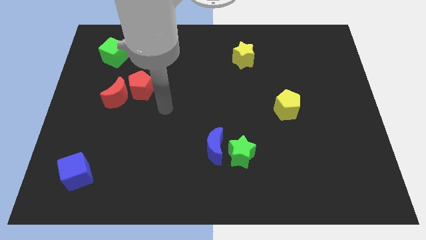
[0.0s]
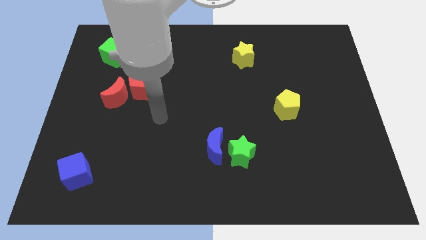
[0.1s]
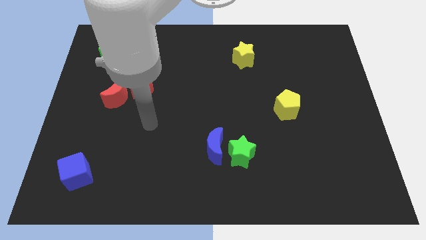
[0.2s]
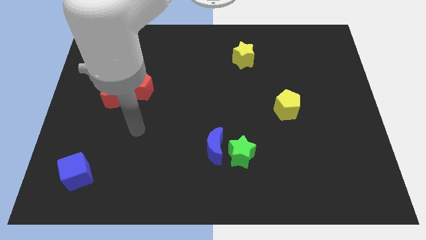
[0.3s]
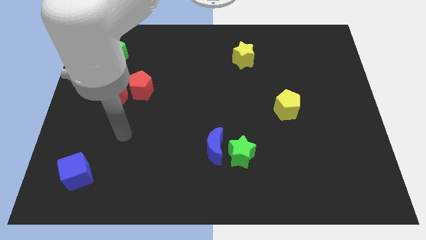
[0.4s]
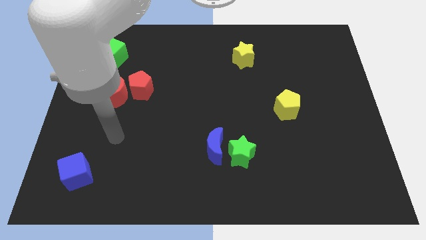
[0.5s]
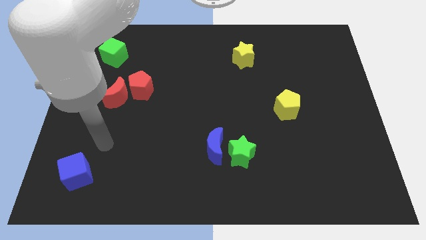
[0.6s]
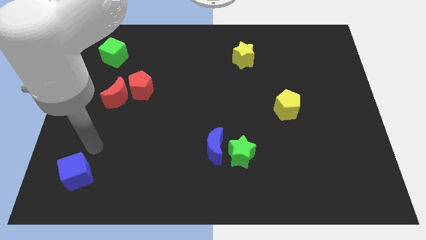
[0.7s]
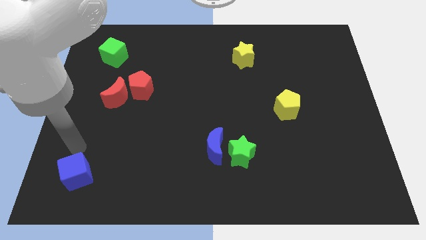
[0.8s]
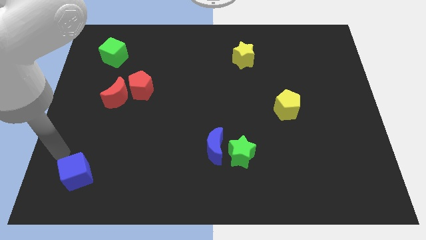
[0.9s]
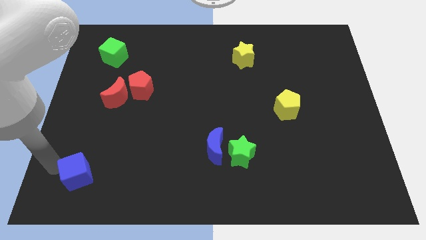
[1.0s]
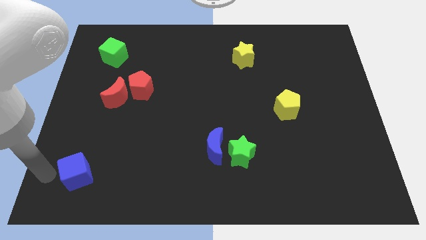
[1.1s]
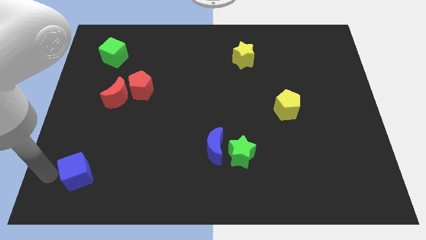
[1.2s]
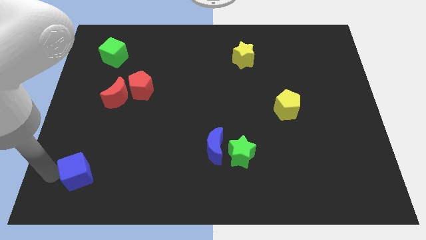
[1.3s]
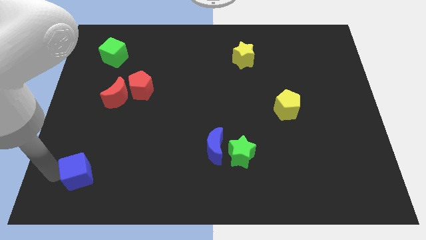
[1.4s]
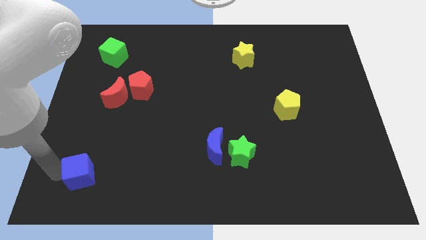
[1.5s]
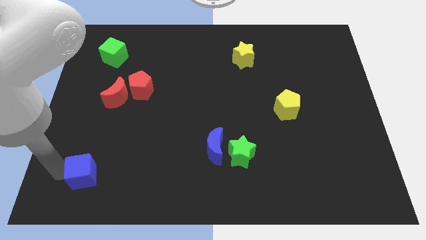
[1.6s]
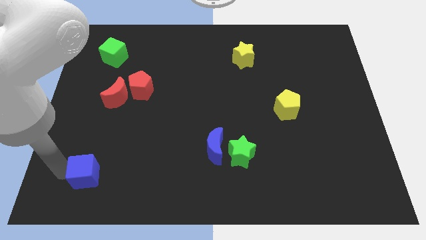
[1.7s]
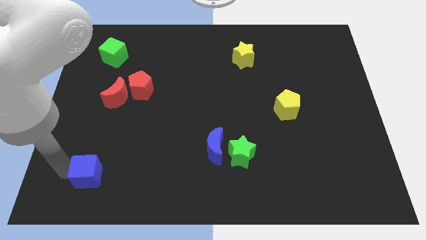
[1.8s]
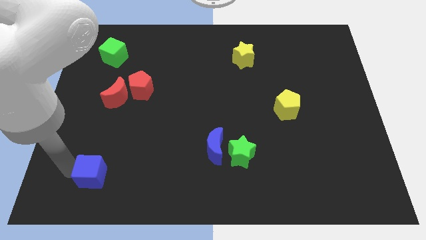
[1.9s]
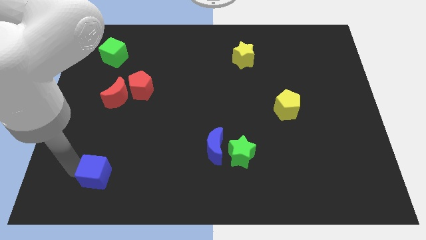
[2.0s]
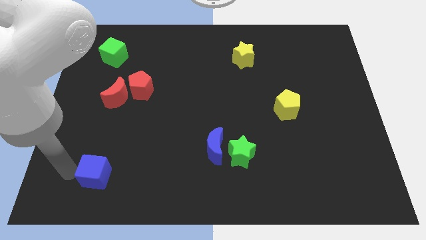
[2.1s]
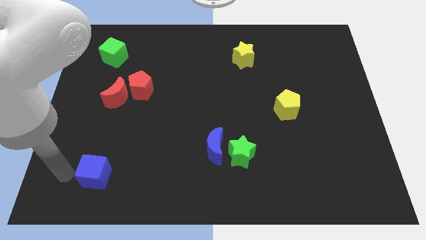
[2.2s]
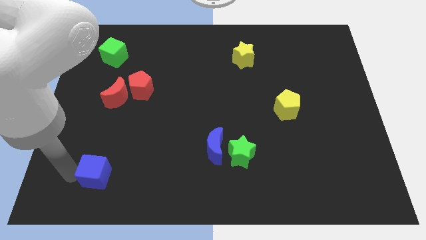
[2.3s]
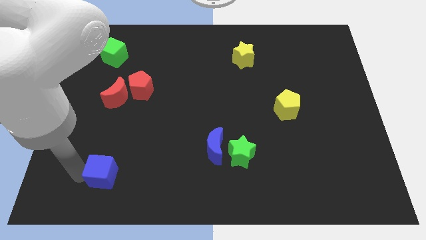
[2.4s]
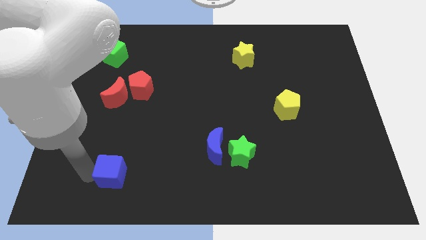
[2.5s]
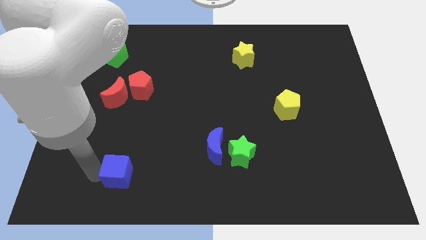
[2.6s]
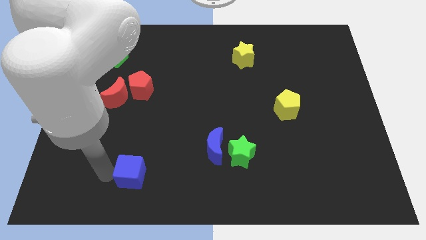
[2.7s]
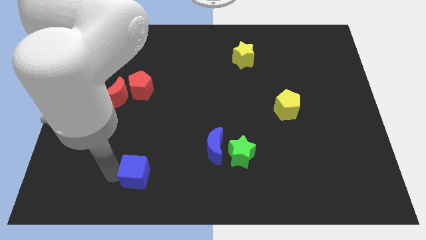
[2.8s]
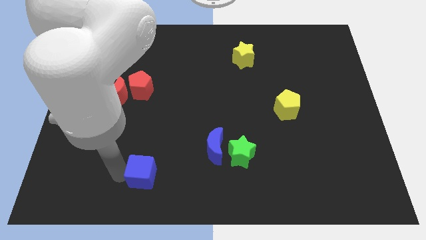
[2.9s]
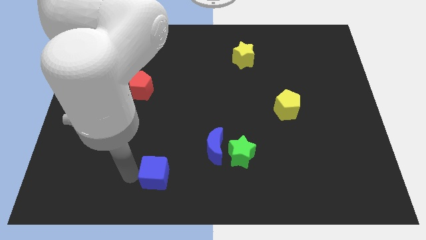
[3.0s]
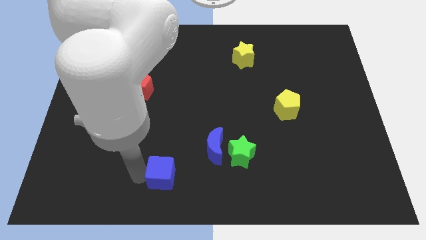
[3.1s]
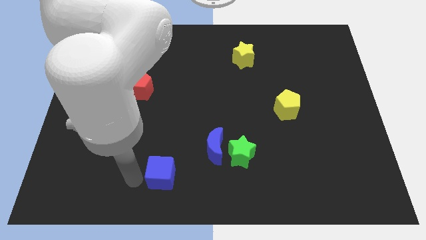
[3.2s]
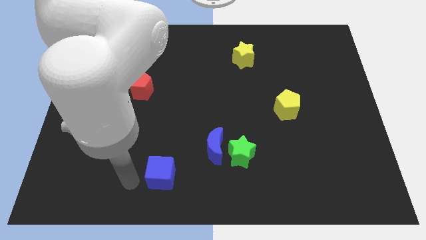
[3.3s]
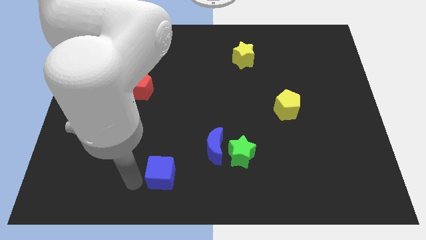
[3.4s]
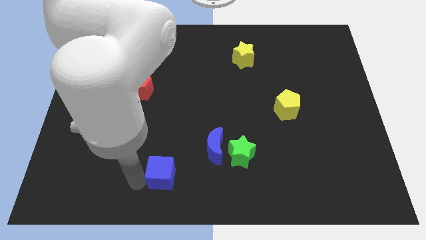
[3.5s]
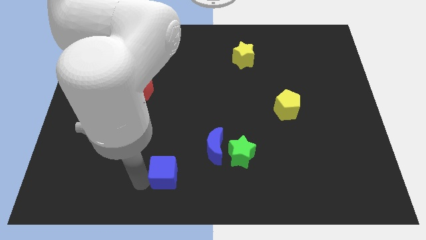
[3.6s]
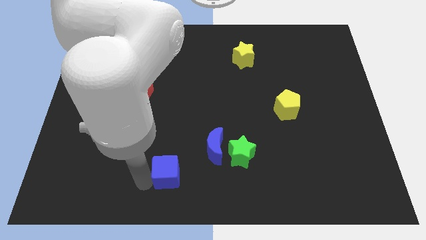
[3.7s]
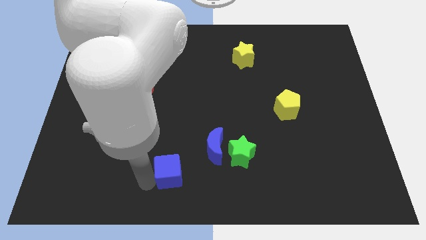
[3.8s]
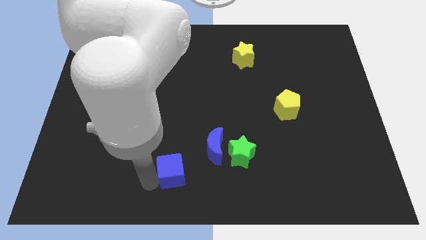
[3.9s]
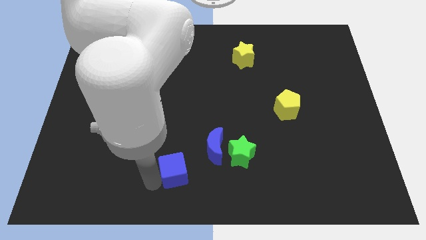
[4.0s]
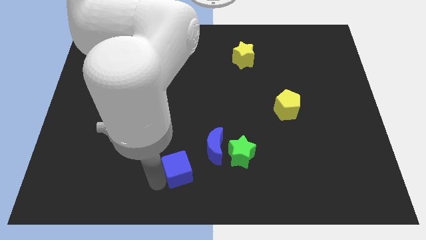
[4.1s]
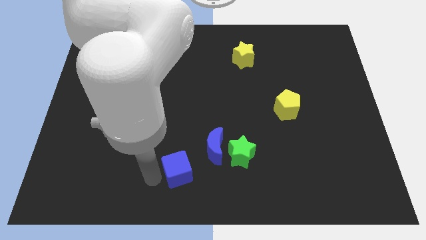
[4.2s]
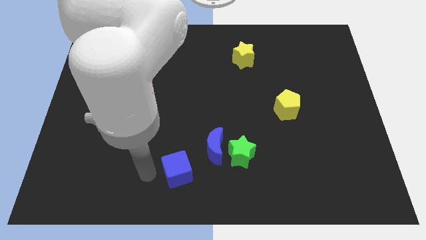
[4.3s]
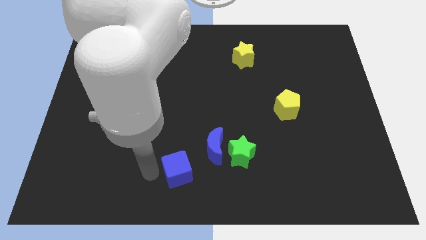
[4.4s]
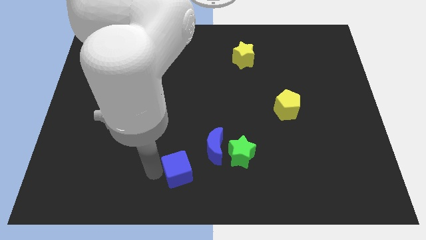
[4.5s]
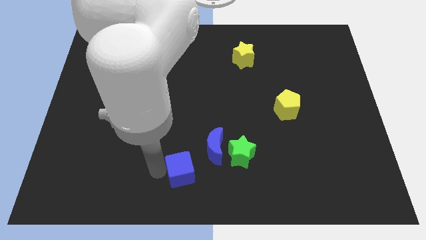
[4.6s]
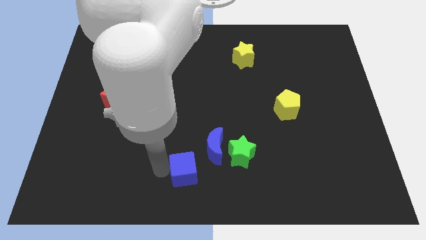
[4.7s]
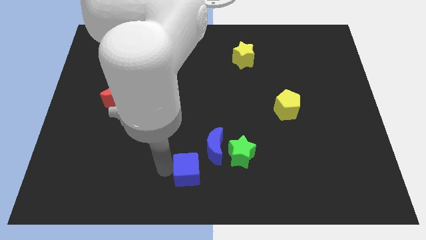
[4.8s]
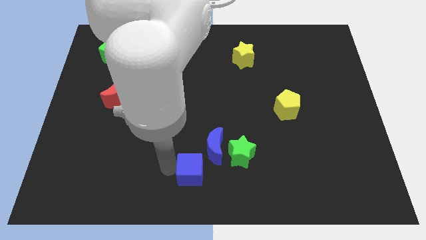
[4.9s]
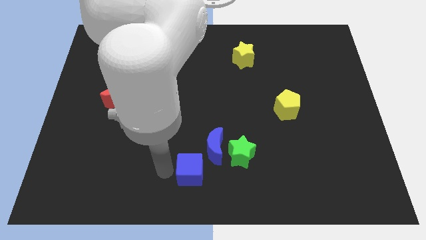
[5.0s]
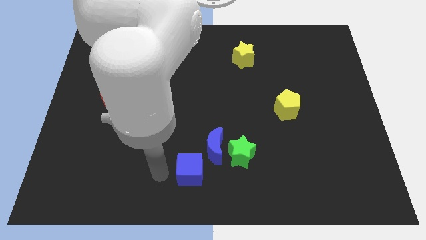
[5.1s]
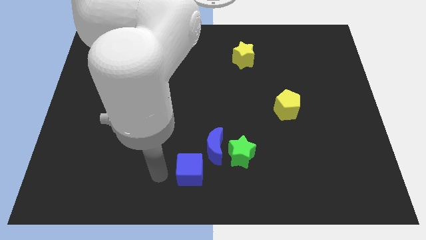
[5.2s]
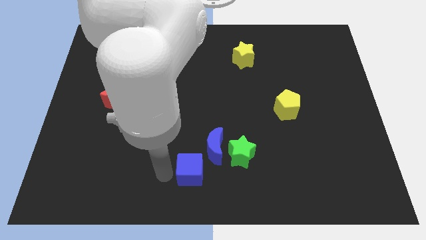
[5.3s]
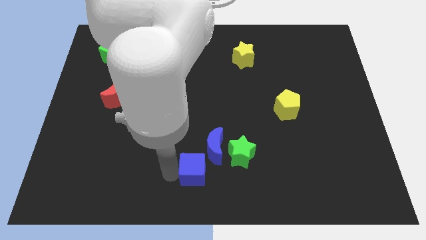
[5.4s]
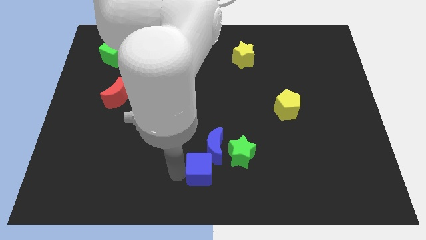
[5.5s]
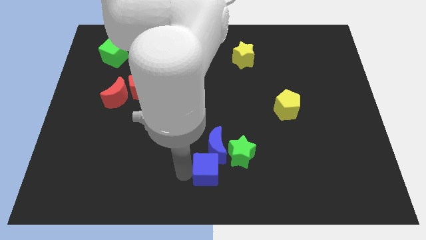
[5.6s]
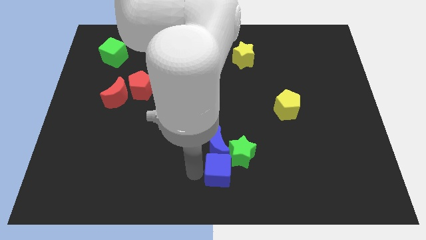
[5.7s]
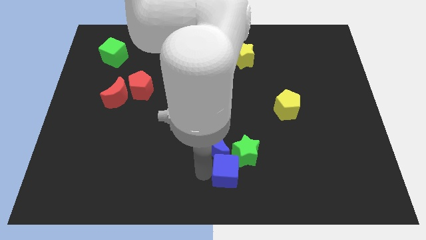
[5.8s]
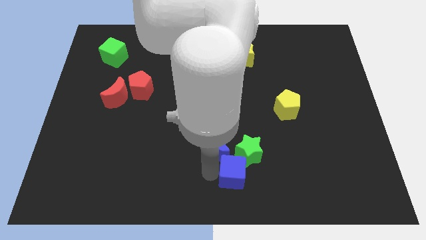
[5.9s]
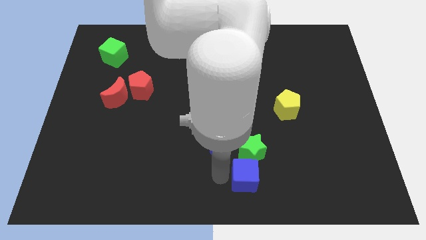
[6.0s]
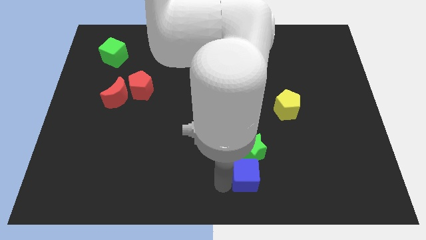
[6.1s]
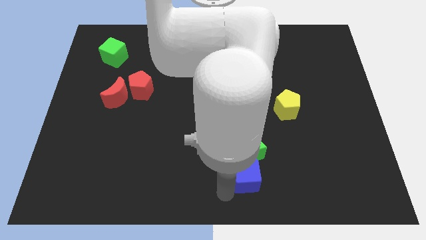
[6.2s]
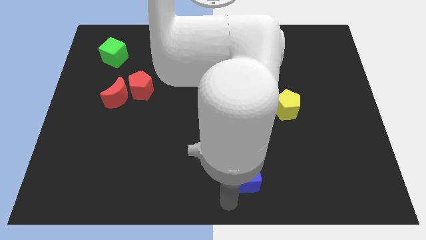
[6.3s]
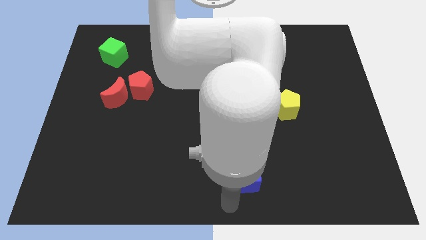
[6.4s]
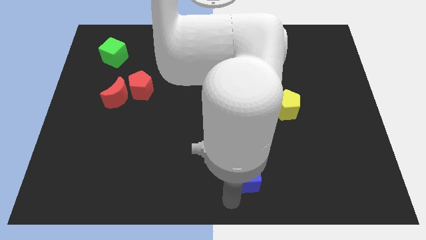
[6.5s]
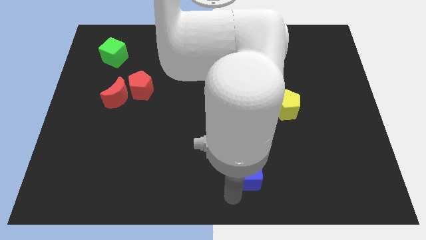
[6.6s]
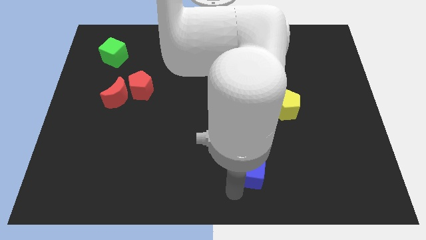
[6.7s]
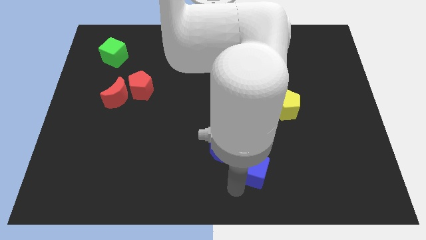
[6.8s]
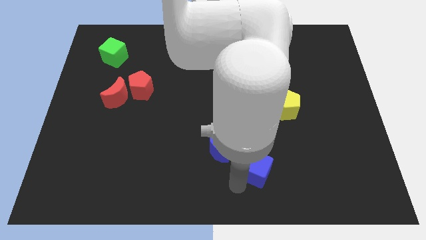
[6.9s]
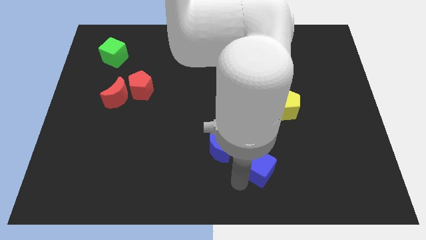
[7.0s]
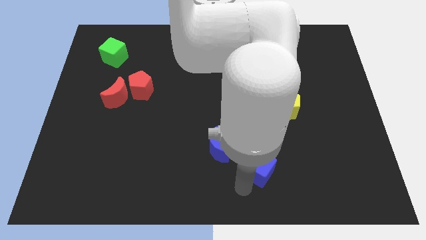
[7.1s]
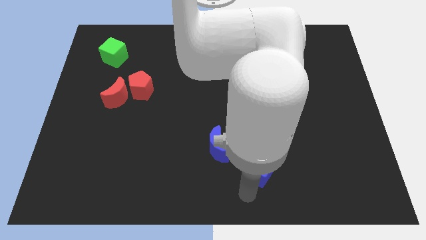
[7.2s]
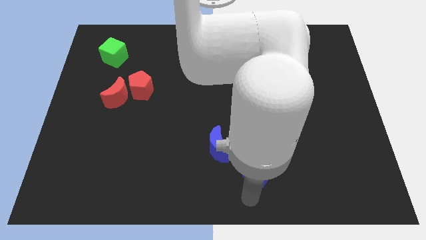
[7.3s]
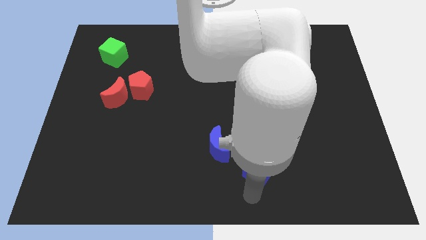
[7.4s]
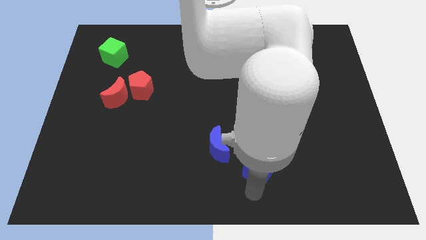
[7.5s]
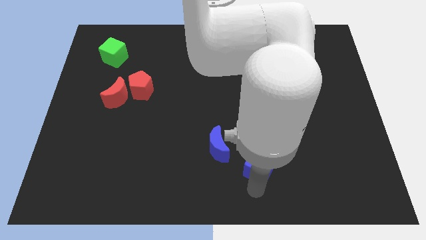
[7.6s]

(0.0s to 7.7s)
put the blue cube to the right side of the blue moon
